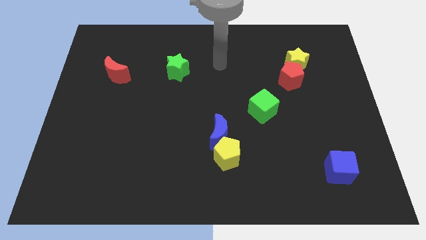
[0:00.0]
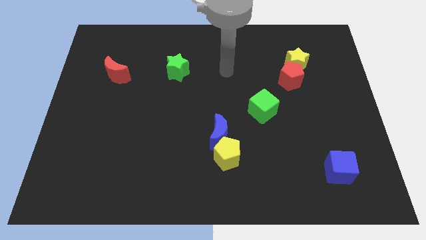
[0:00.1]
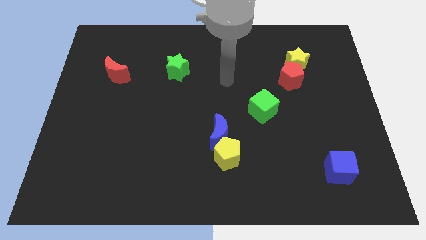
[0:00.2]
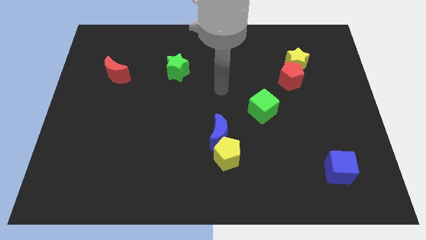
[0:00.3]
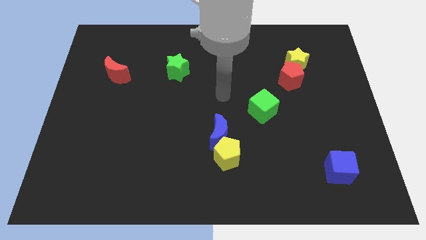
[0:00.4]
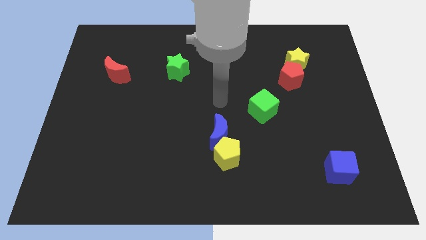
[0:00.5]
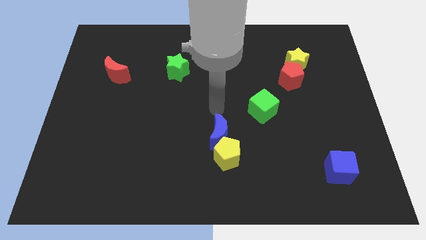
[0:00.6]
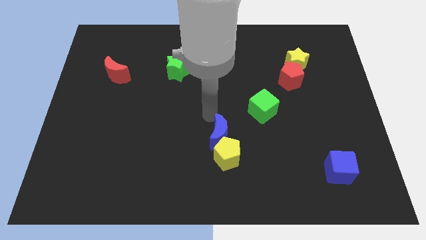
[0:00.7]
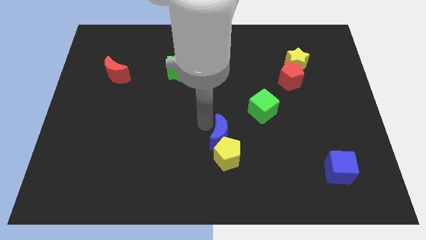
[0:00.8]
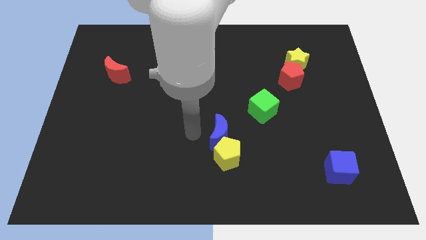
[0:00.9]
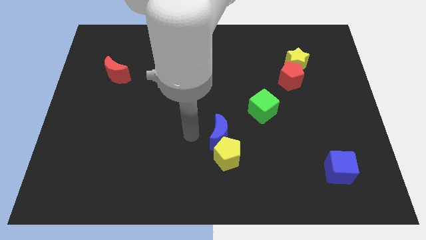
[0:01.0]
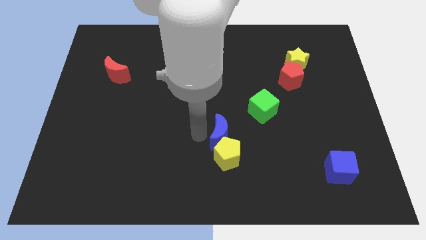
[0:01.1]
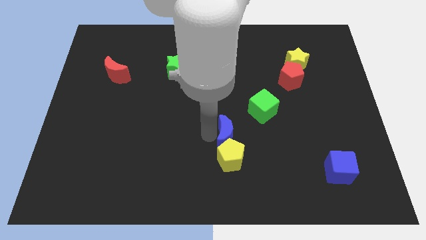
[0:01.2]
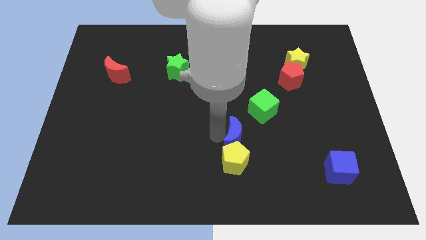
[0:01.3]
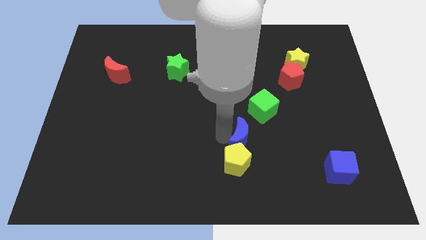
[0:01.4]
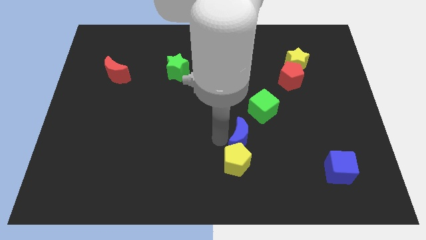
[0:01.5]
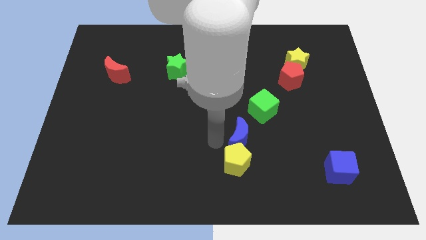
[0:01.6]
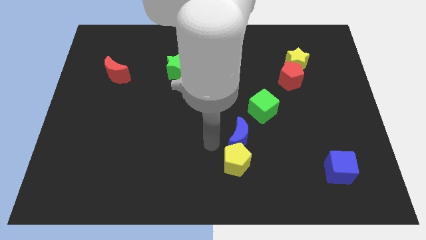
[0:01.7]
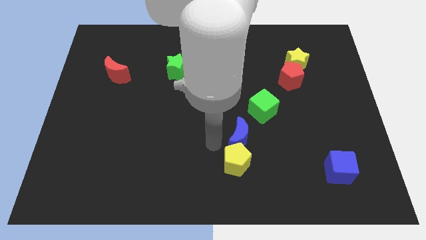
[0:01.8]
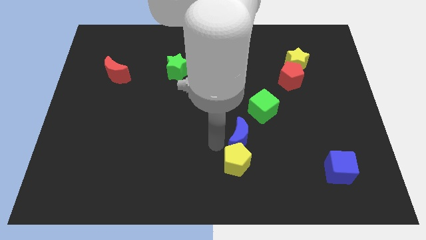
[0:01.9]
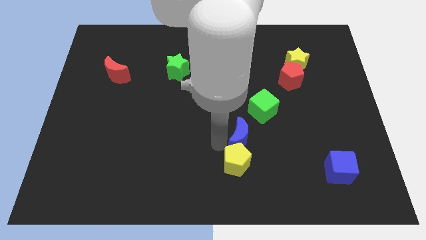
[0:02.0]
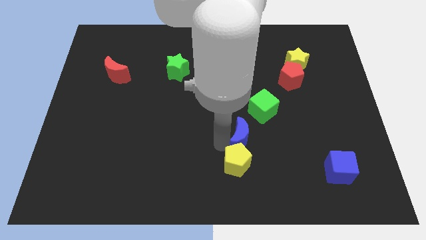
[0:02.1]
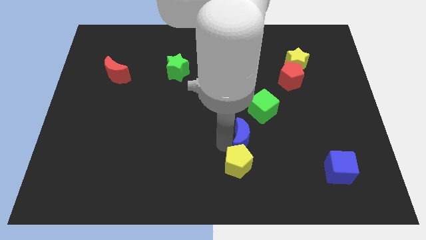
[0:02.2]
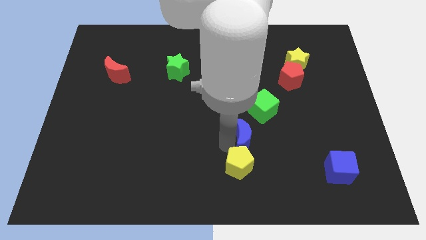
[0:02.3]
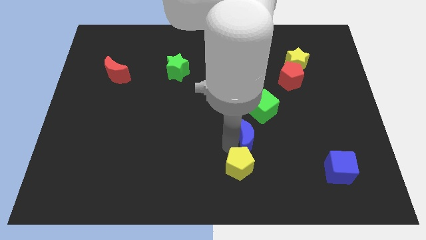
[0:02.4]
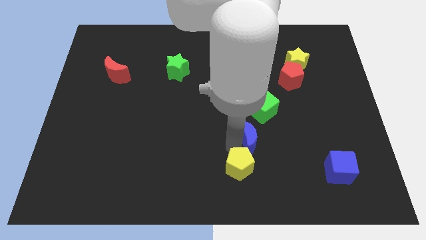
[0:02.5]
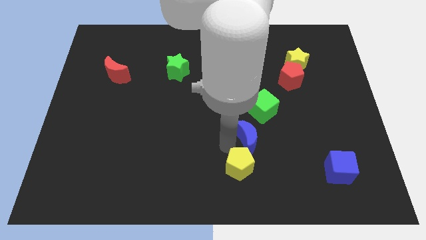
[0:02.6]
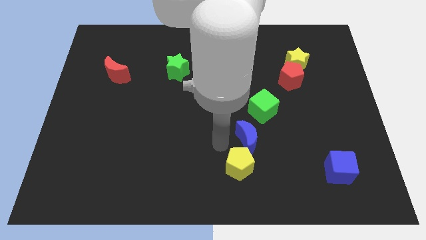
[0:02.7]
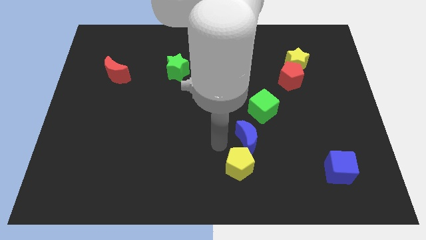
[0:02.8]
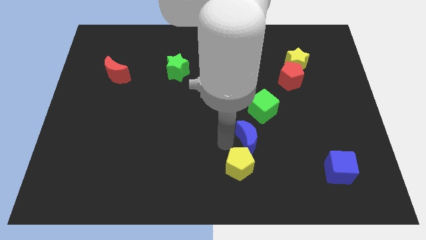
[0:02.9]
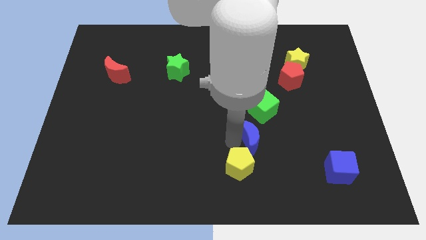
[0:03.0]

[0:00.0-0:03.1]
slightly slide the blue moon to the right

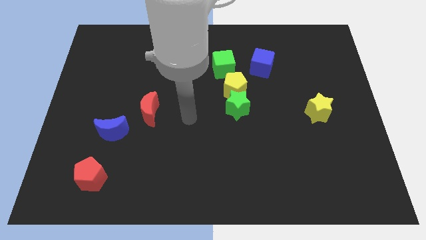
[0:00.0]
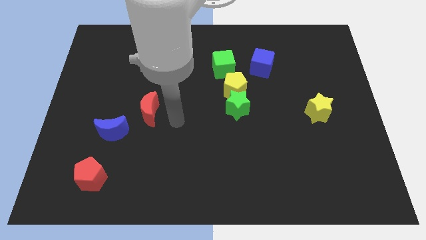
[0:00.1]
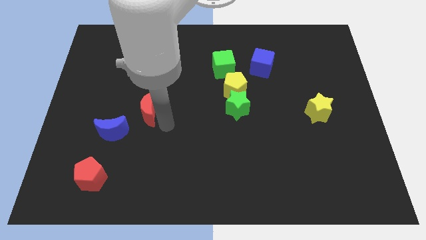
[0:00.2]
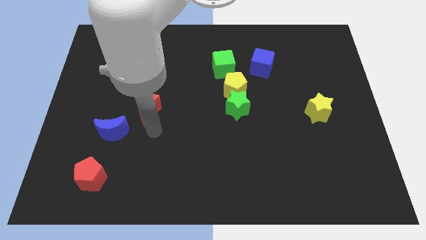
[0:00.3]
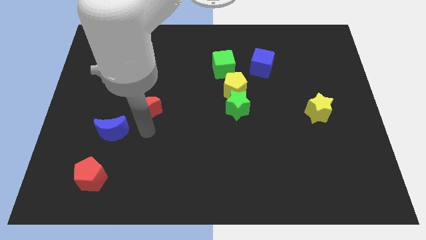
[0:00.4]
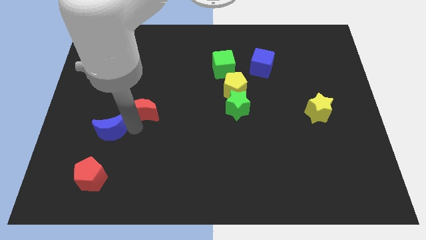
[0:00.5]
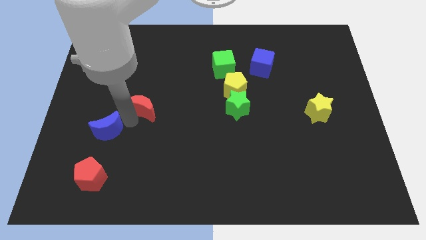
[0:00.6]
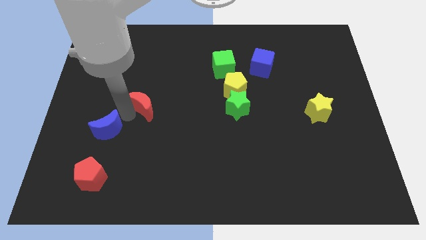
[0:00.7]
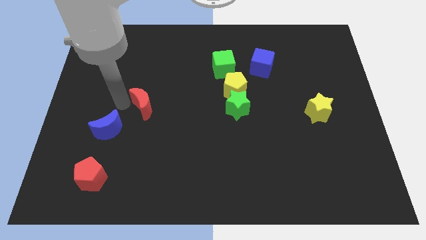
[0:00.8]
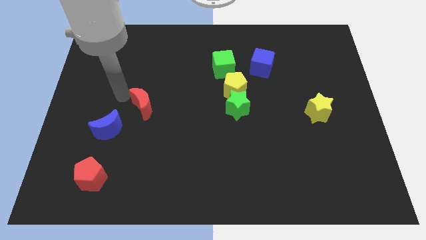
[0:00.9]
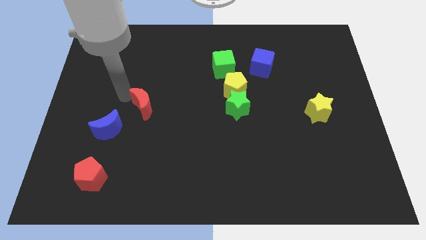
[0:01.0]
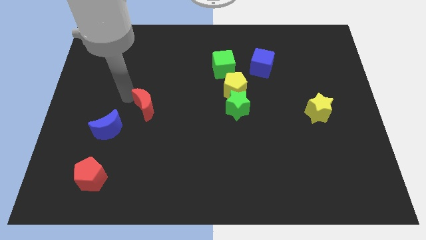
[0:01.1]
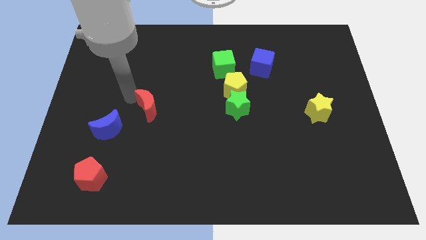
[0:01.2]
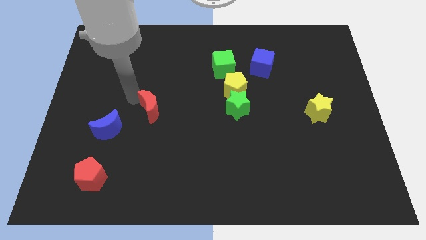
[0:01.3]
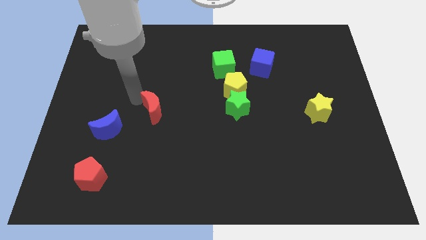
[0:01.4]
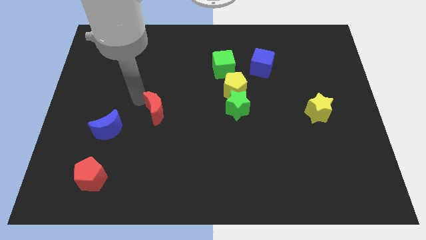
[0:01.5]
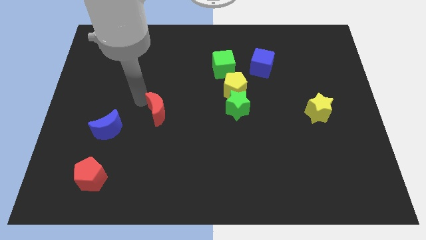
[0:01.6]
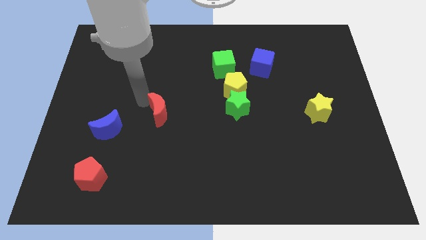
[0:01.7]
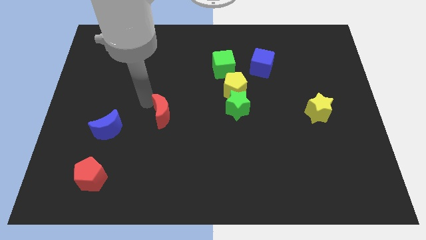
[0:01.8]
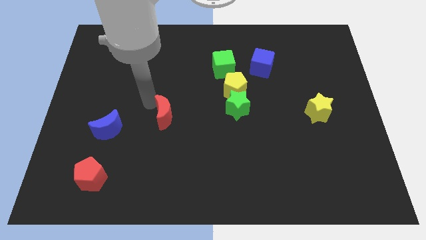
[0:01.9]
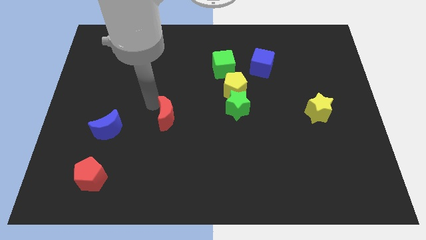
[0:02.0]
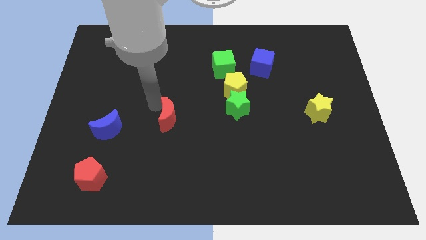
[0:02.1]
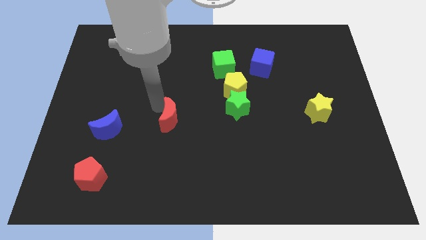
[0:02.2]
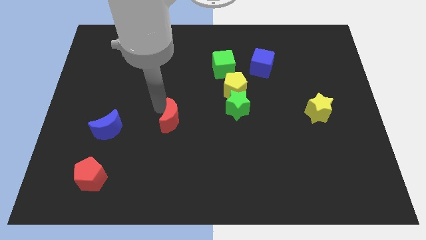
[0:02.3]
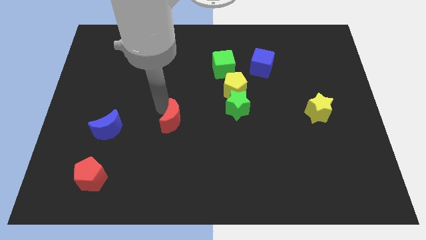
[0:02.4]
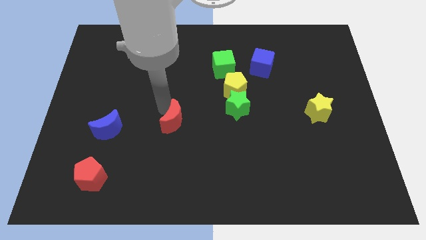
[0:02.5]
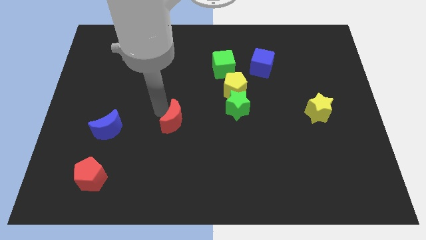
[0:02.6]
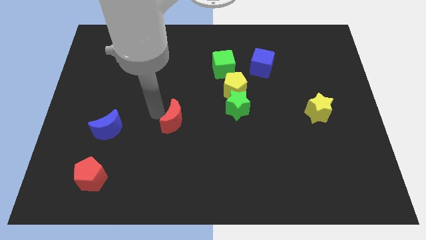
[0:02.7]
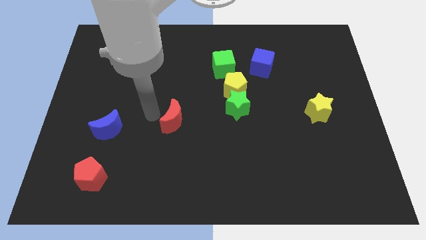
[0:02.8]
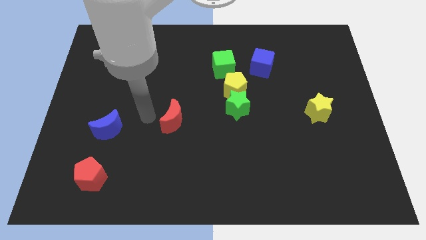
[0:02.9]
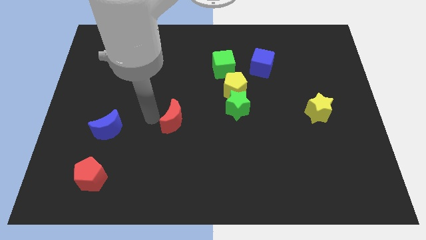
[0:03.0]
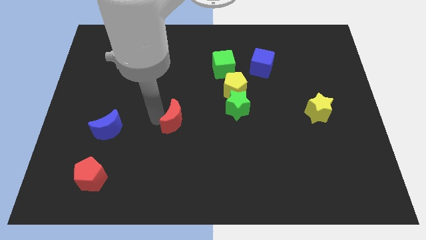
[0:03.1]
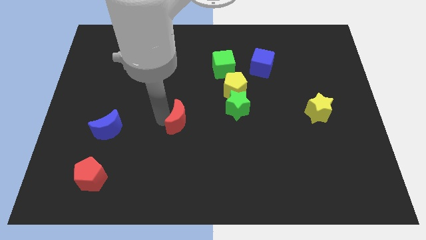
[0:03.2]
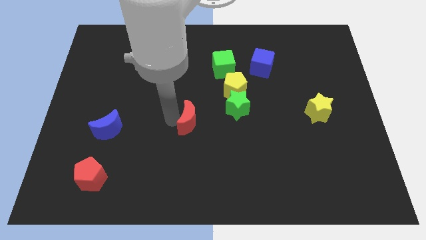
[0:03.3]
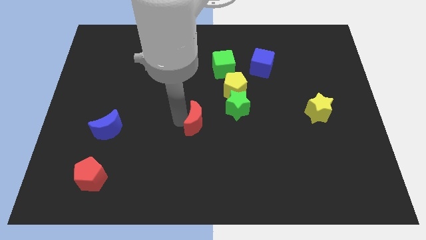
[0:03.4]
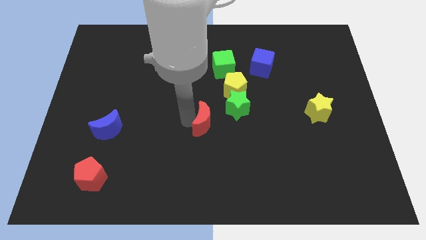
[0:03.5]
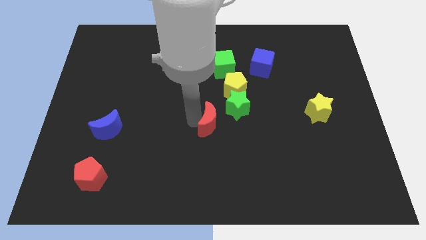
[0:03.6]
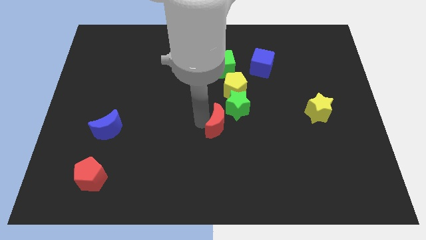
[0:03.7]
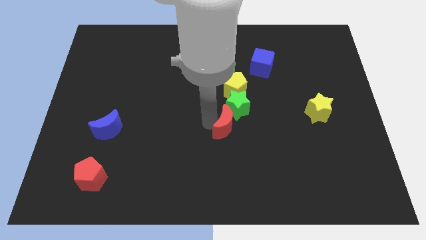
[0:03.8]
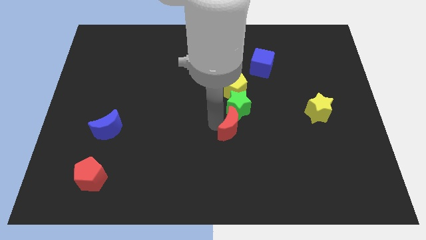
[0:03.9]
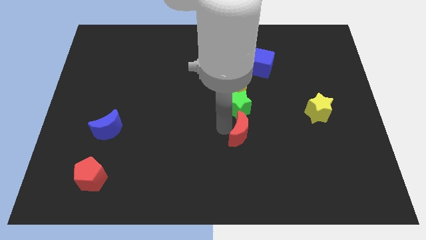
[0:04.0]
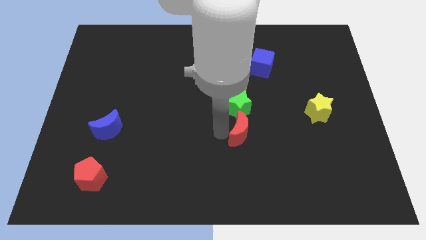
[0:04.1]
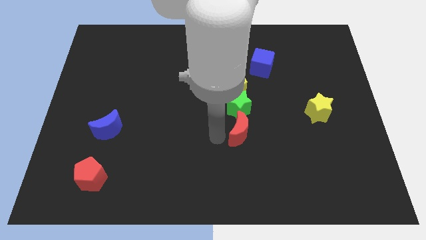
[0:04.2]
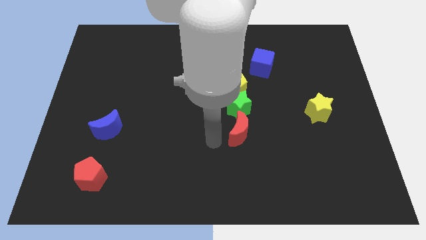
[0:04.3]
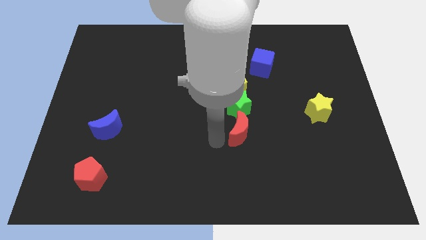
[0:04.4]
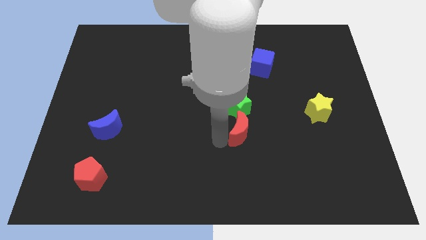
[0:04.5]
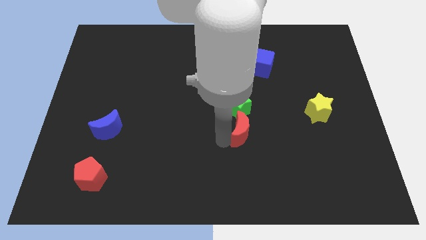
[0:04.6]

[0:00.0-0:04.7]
move the red moon right

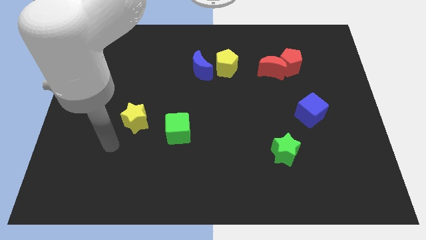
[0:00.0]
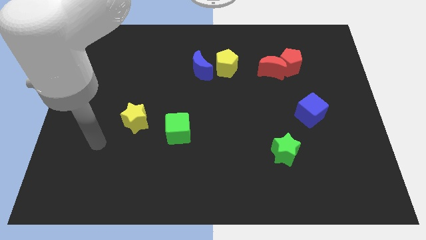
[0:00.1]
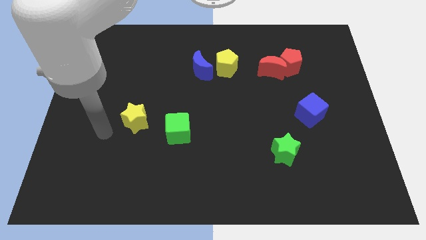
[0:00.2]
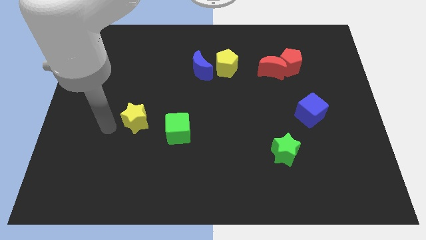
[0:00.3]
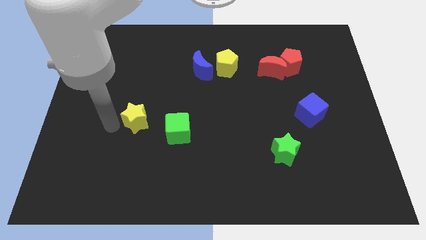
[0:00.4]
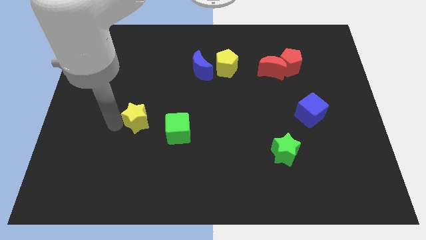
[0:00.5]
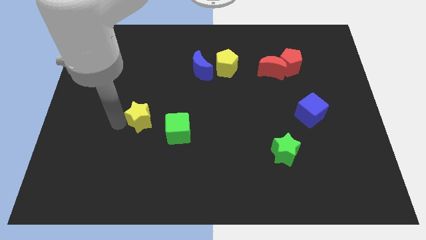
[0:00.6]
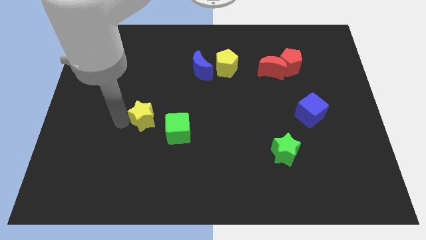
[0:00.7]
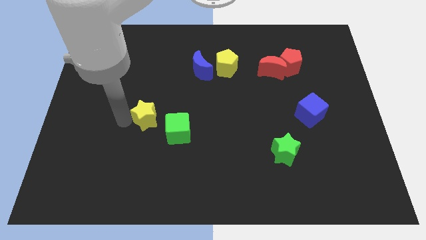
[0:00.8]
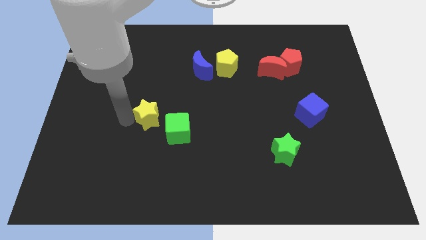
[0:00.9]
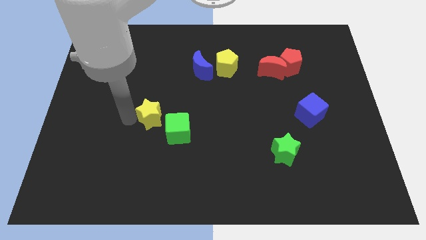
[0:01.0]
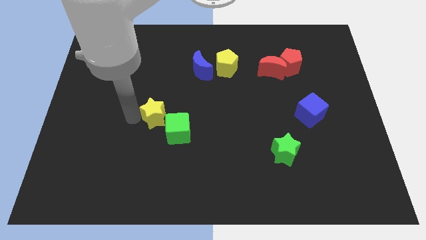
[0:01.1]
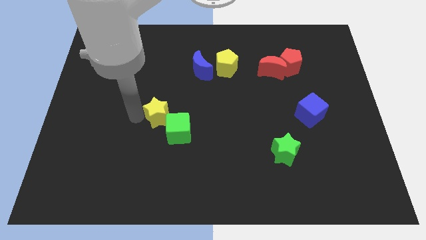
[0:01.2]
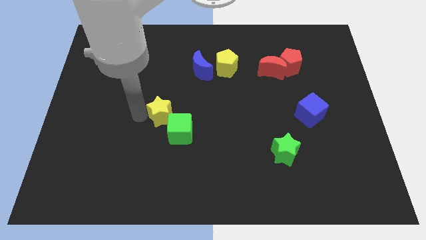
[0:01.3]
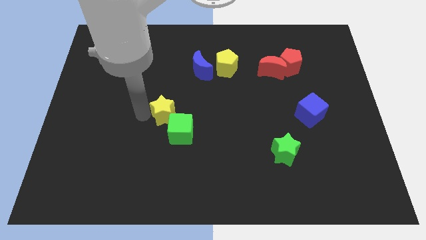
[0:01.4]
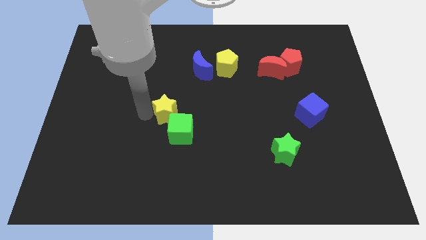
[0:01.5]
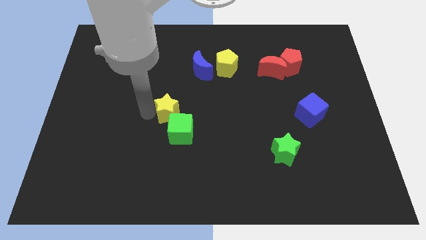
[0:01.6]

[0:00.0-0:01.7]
push the yellow star a little to the right
